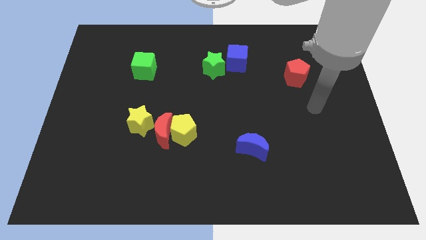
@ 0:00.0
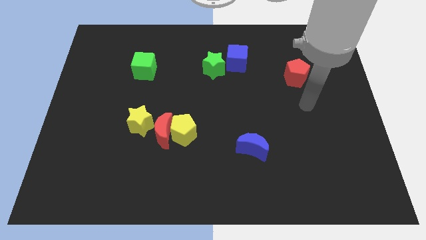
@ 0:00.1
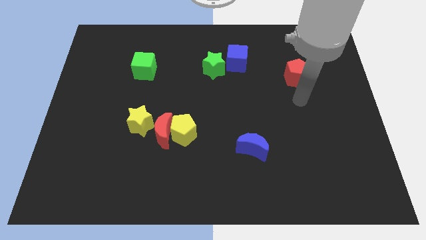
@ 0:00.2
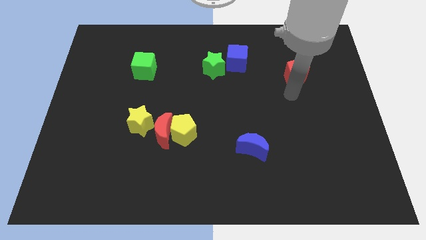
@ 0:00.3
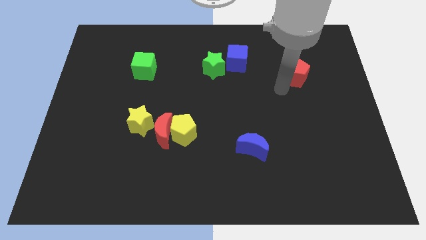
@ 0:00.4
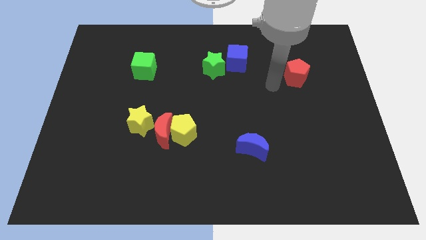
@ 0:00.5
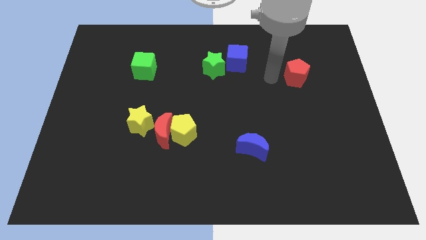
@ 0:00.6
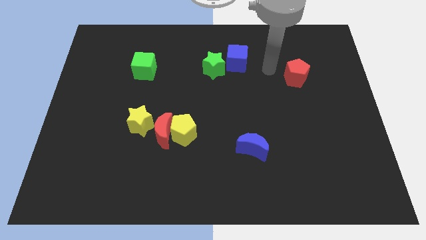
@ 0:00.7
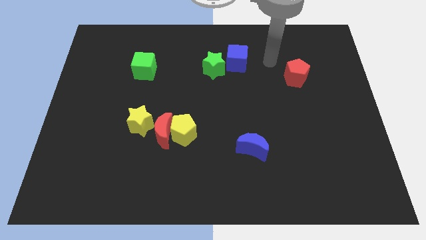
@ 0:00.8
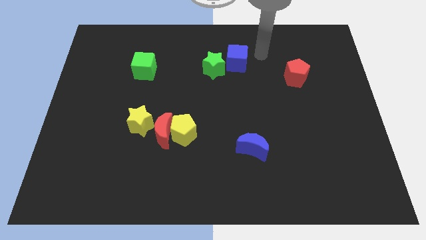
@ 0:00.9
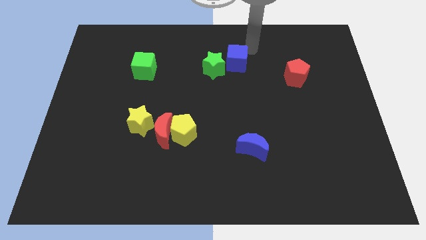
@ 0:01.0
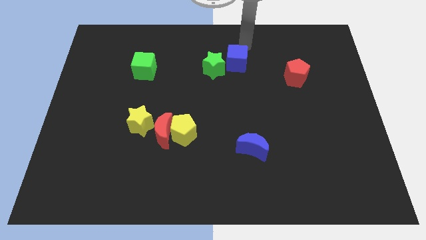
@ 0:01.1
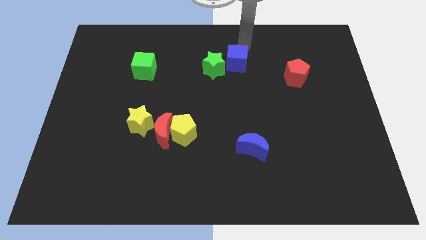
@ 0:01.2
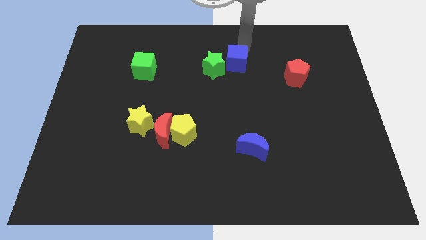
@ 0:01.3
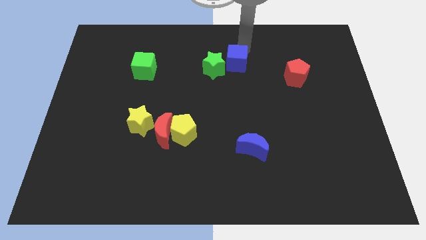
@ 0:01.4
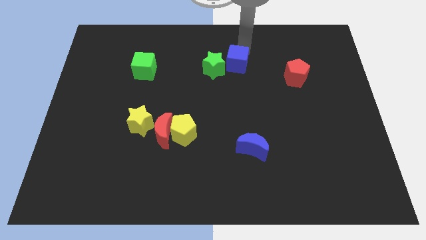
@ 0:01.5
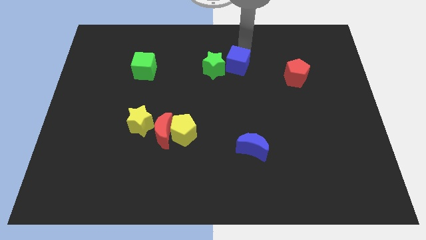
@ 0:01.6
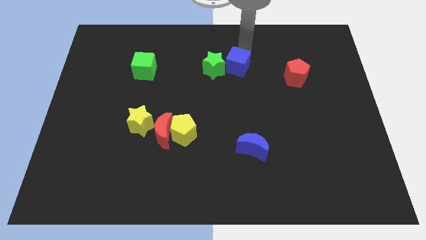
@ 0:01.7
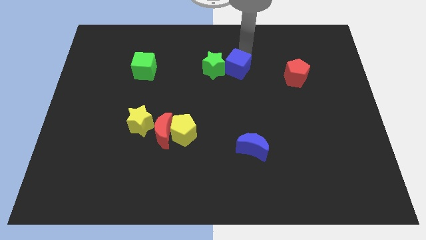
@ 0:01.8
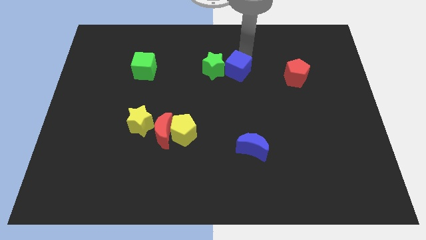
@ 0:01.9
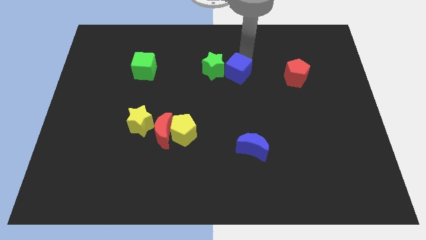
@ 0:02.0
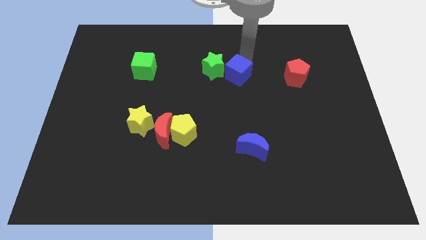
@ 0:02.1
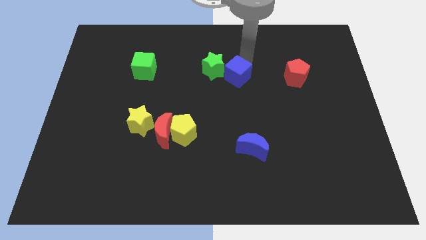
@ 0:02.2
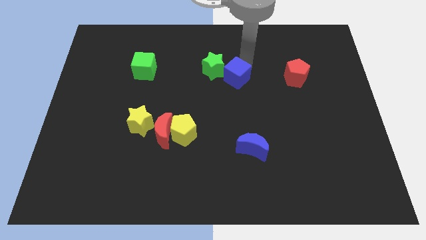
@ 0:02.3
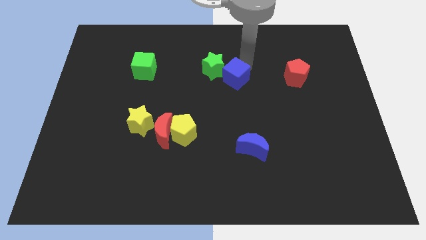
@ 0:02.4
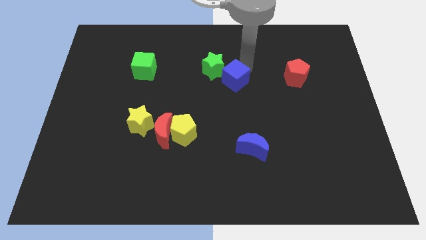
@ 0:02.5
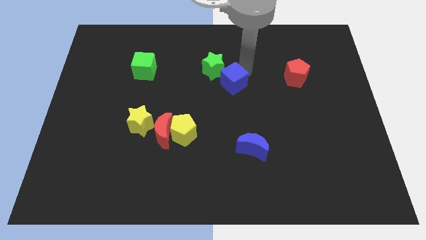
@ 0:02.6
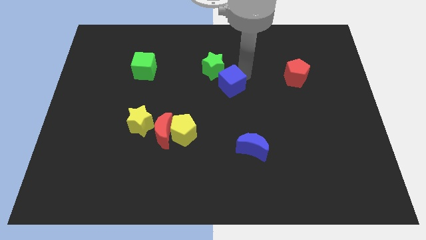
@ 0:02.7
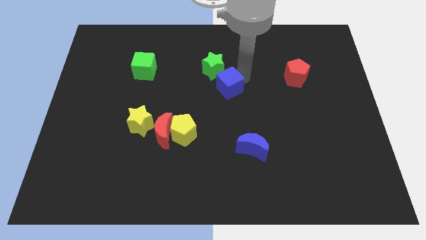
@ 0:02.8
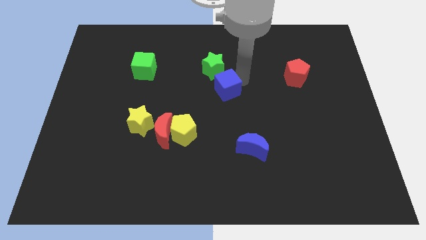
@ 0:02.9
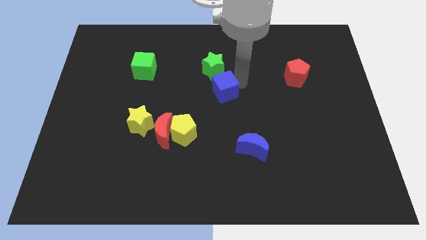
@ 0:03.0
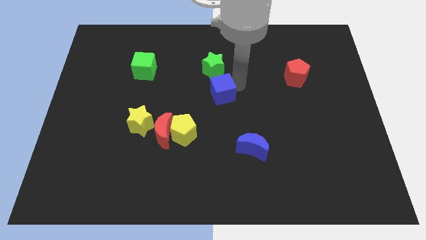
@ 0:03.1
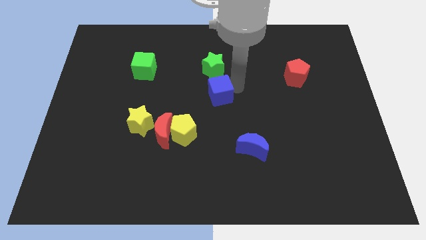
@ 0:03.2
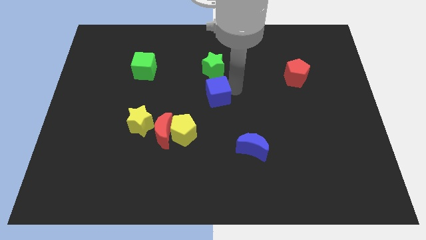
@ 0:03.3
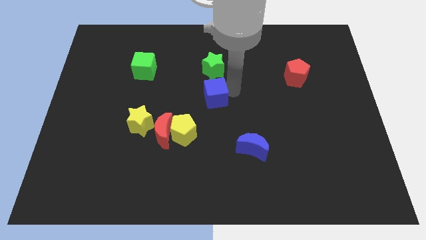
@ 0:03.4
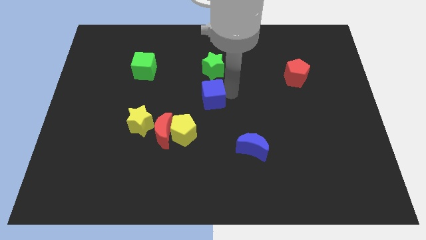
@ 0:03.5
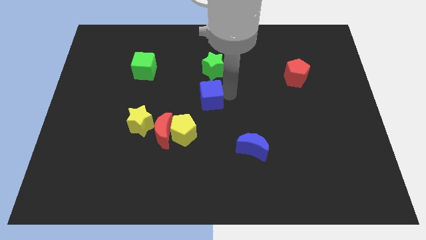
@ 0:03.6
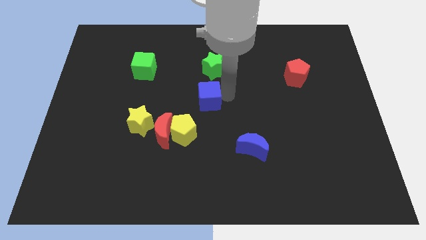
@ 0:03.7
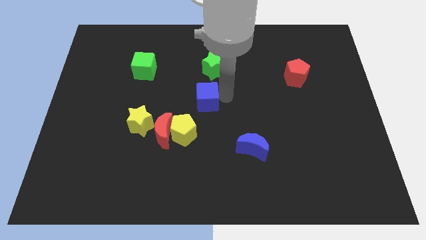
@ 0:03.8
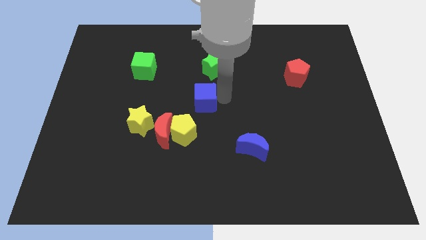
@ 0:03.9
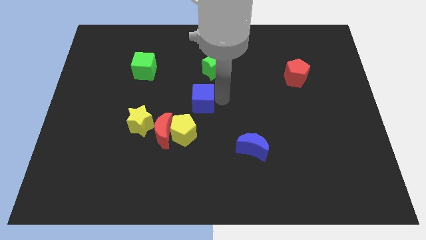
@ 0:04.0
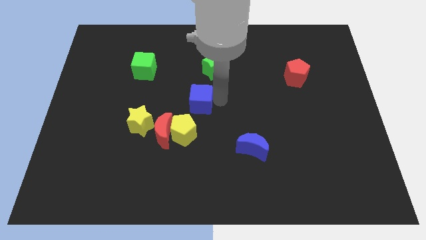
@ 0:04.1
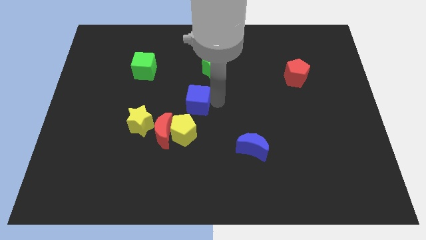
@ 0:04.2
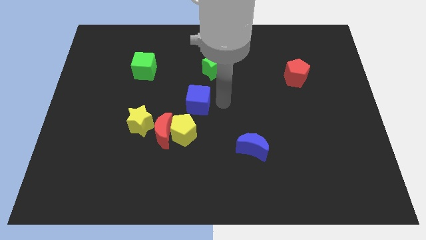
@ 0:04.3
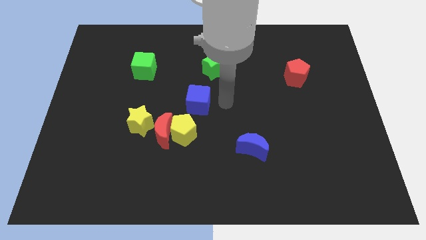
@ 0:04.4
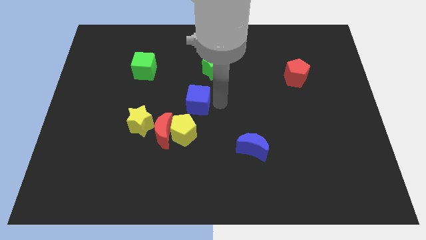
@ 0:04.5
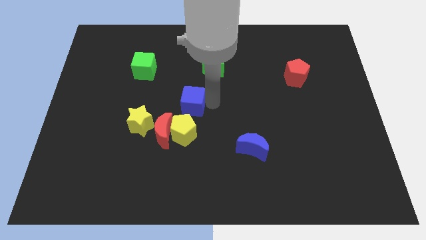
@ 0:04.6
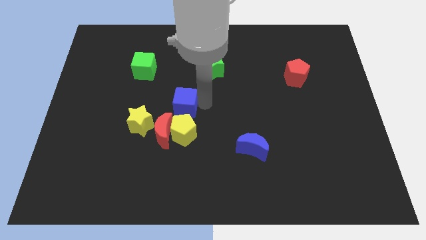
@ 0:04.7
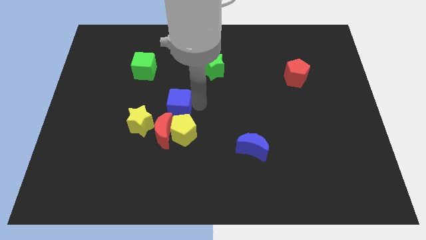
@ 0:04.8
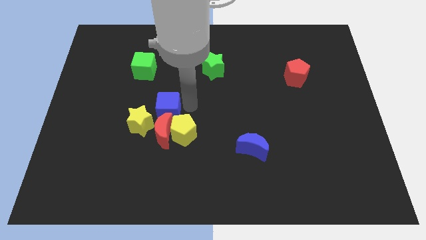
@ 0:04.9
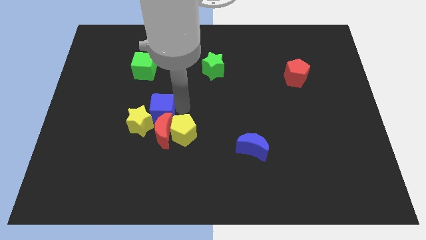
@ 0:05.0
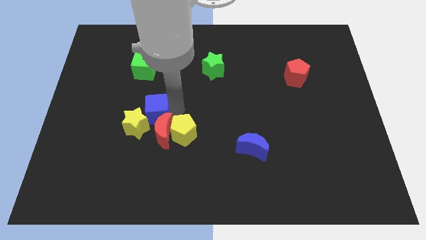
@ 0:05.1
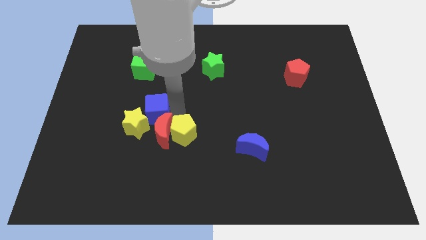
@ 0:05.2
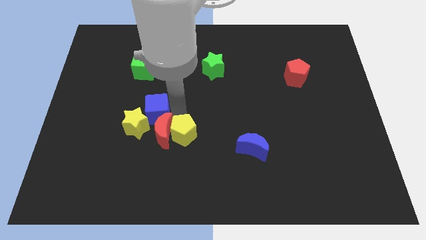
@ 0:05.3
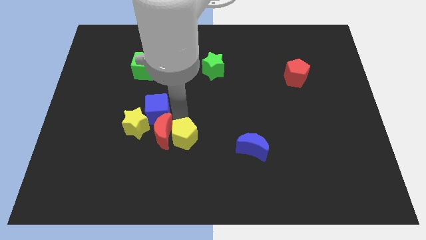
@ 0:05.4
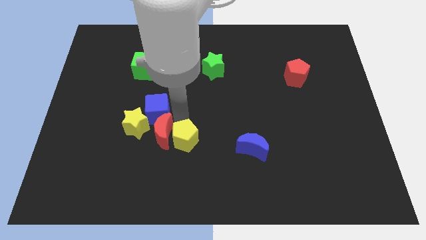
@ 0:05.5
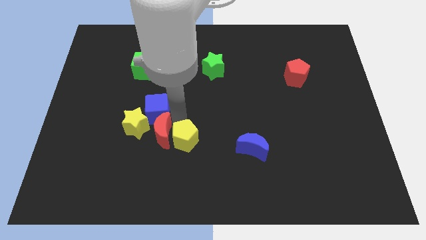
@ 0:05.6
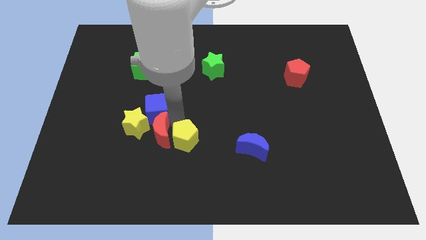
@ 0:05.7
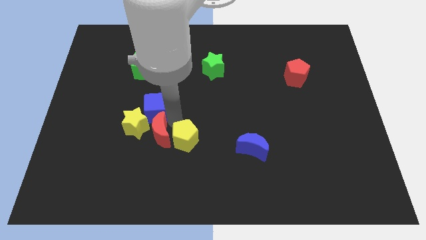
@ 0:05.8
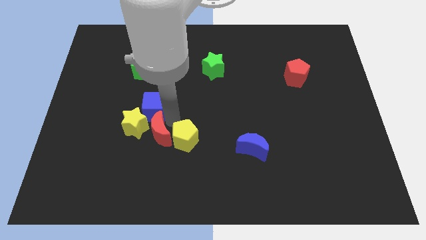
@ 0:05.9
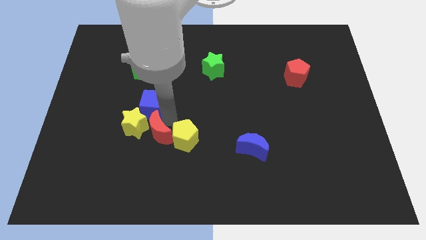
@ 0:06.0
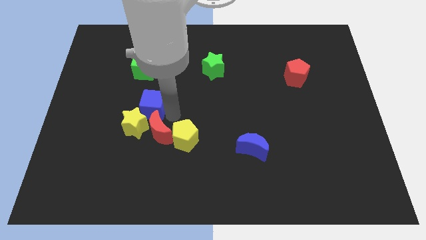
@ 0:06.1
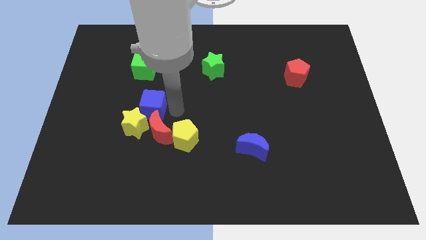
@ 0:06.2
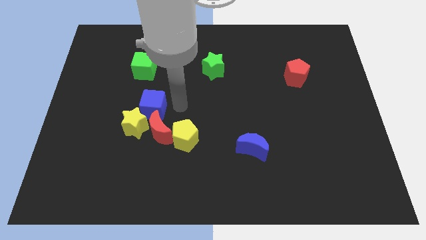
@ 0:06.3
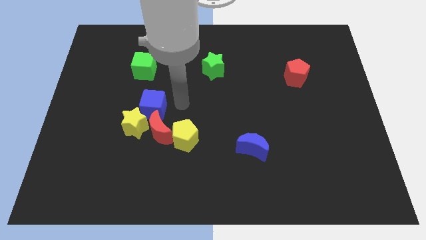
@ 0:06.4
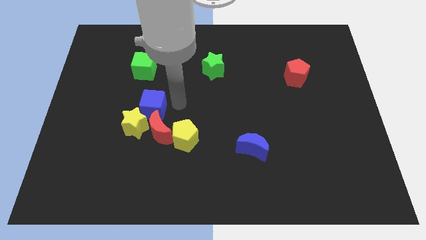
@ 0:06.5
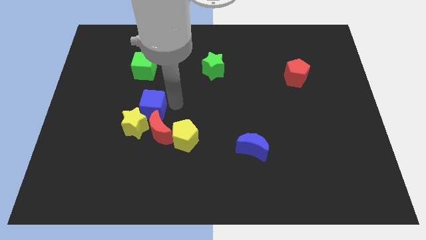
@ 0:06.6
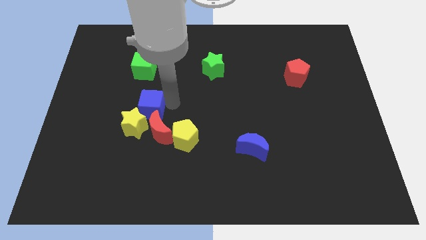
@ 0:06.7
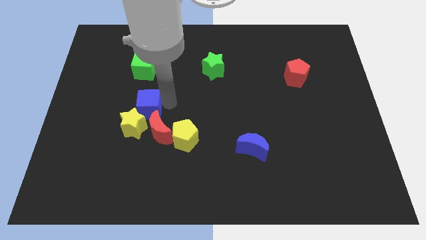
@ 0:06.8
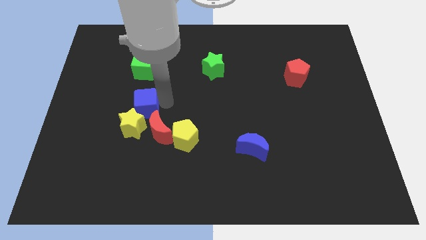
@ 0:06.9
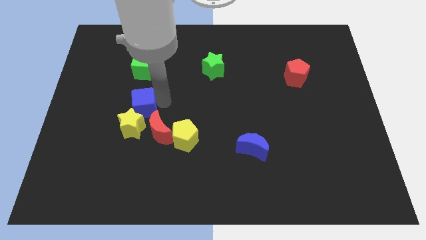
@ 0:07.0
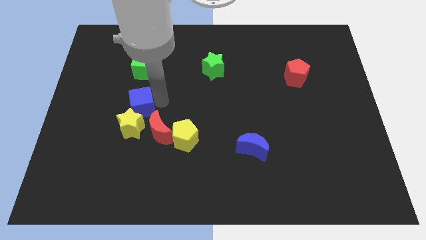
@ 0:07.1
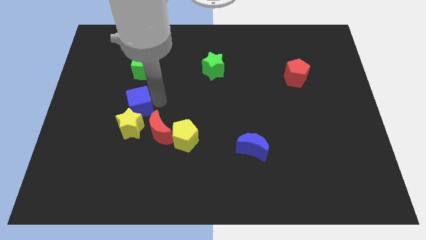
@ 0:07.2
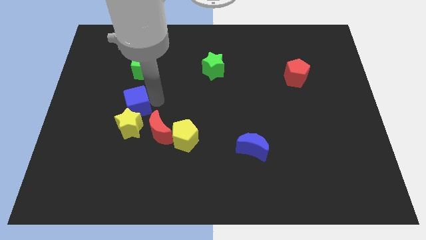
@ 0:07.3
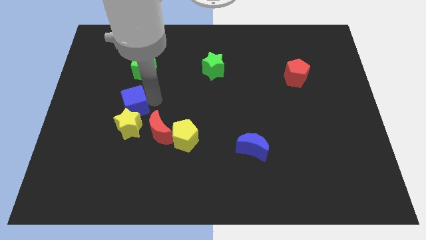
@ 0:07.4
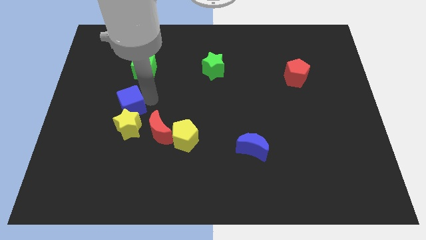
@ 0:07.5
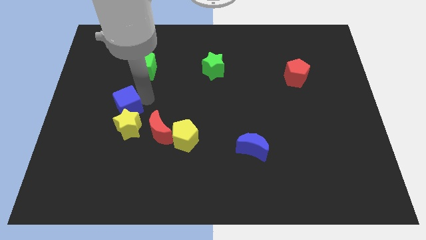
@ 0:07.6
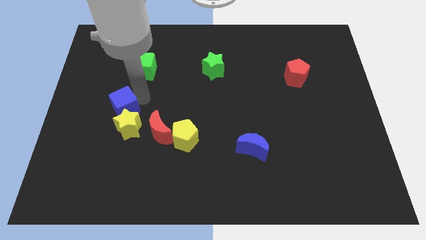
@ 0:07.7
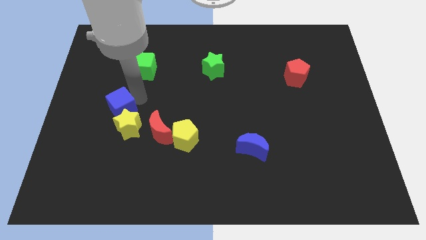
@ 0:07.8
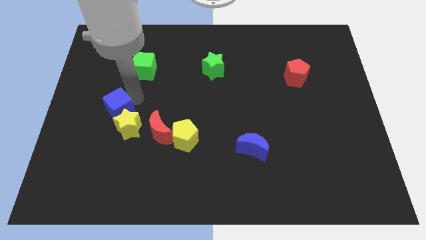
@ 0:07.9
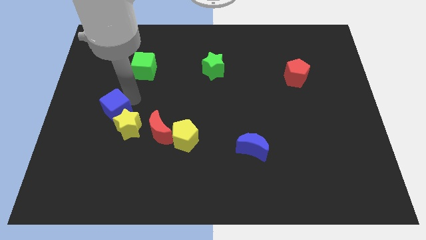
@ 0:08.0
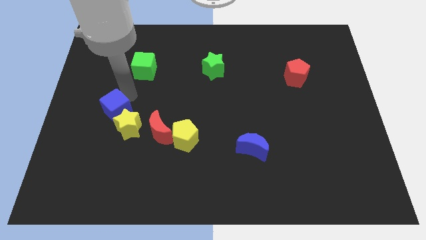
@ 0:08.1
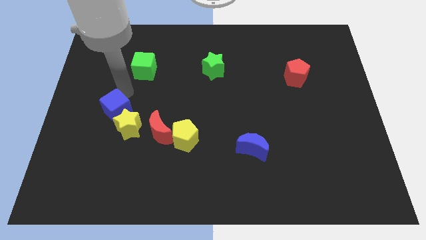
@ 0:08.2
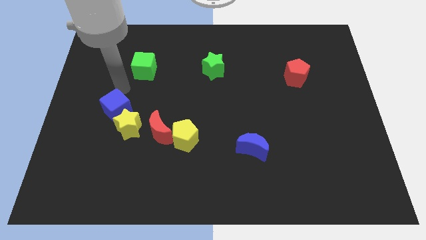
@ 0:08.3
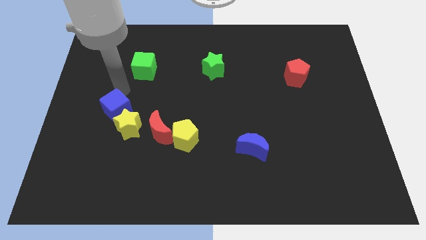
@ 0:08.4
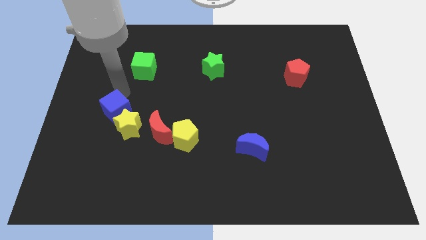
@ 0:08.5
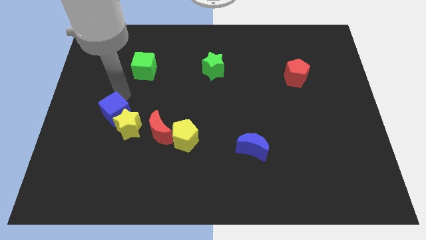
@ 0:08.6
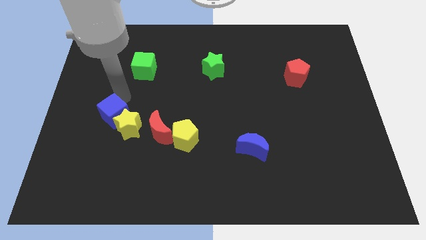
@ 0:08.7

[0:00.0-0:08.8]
put the blue cube just left of the red moon
